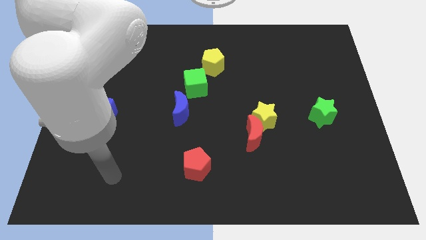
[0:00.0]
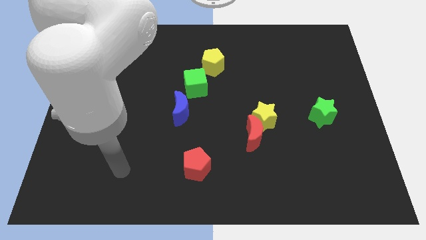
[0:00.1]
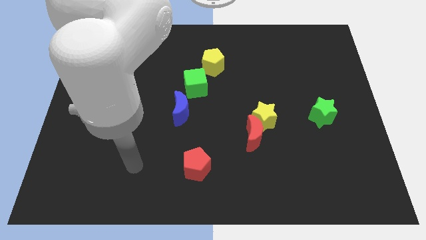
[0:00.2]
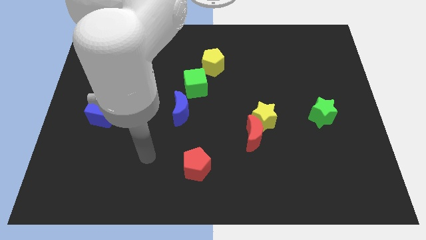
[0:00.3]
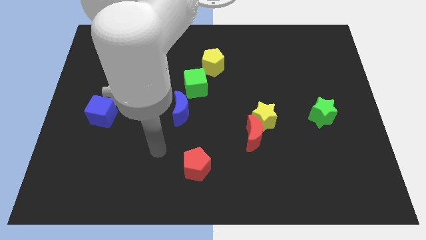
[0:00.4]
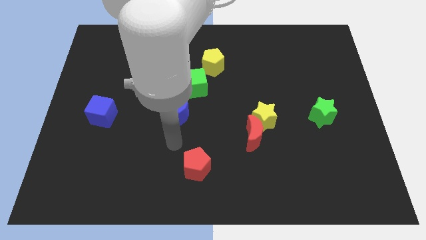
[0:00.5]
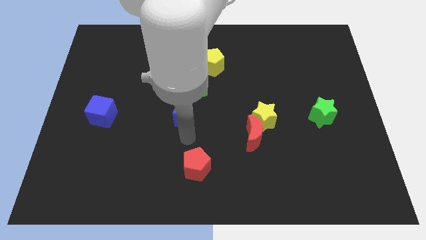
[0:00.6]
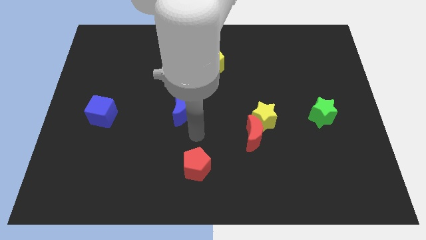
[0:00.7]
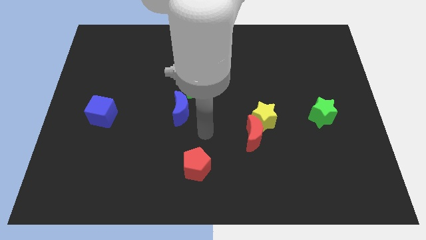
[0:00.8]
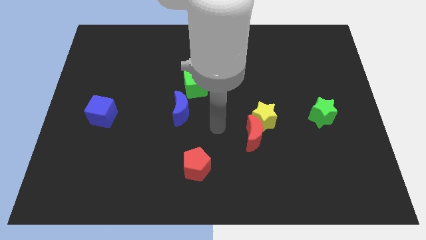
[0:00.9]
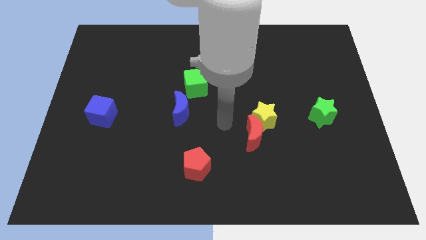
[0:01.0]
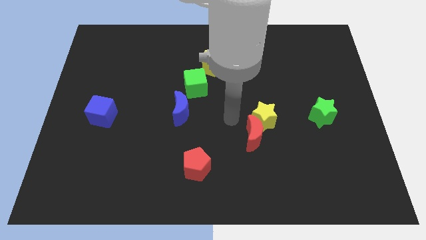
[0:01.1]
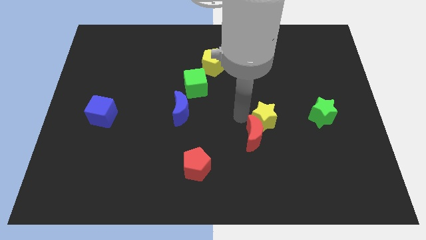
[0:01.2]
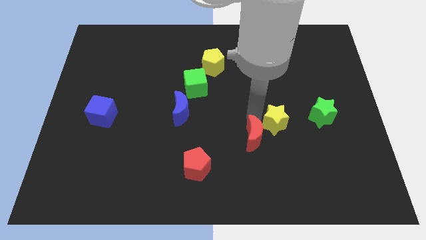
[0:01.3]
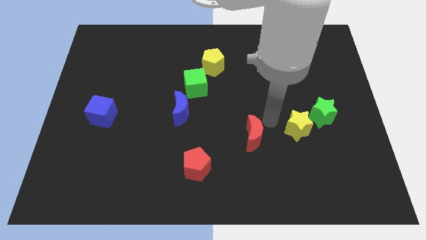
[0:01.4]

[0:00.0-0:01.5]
separate the red moon from the yellow star

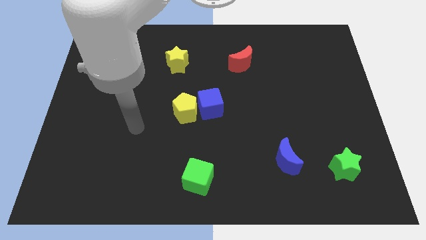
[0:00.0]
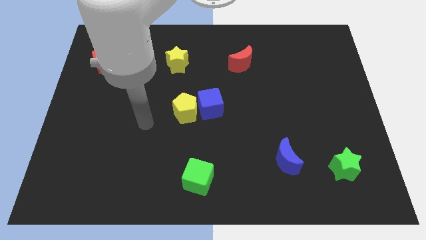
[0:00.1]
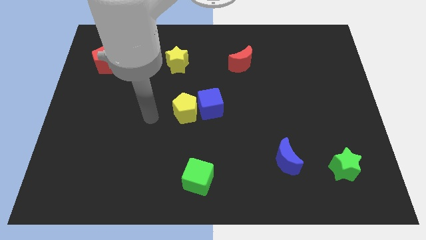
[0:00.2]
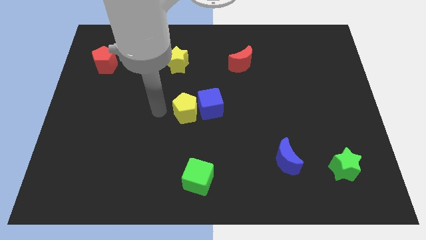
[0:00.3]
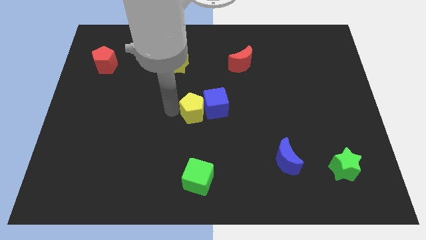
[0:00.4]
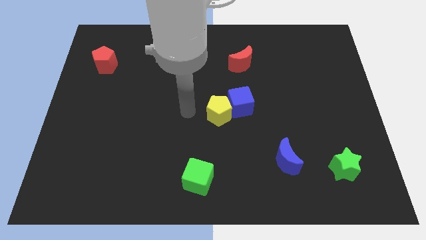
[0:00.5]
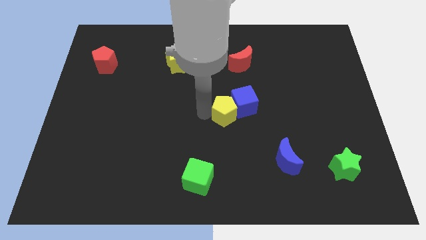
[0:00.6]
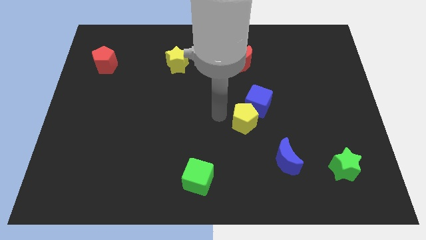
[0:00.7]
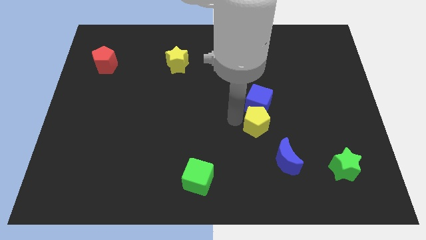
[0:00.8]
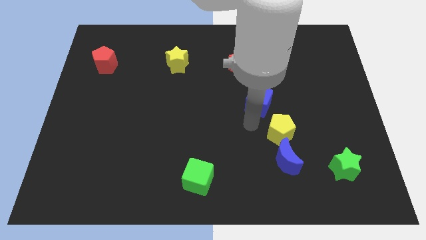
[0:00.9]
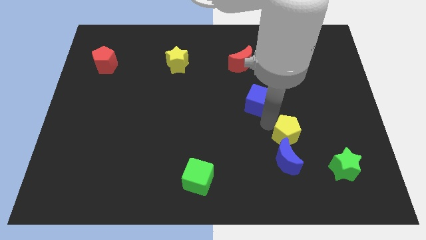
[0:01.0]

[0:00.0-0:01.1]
pull the blue cube apart from the yellow pentagon

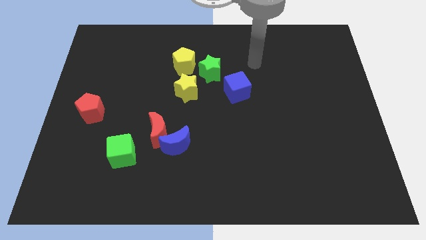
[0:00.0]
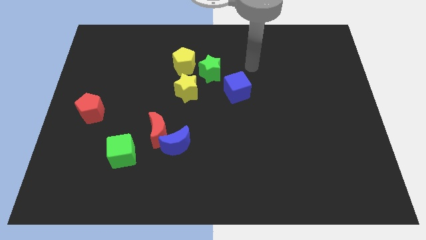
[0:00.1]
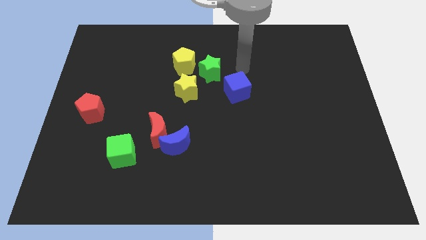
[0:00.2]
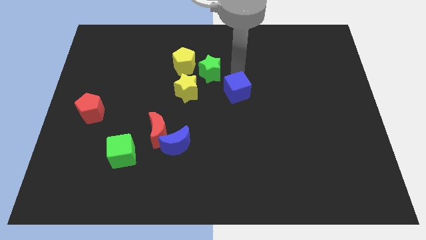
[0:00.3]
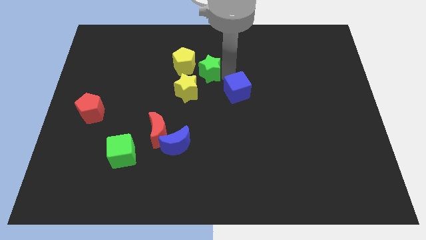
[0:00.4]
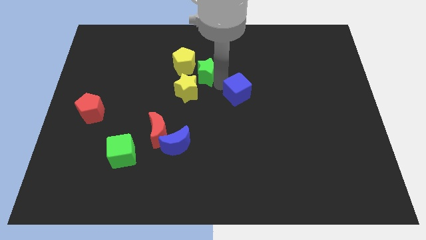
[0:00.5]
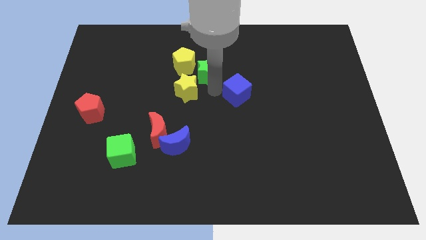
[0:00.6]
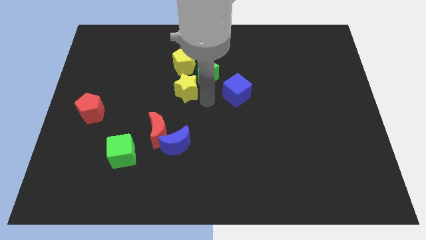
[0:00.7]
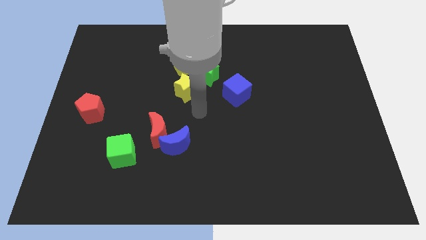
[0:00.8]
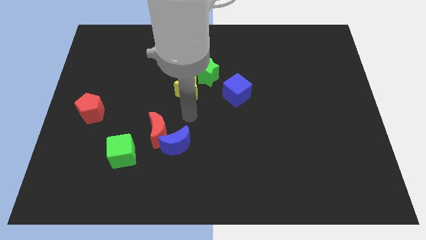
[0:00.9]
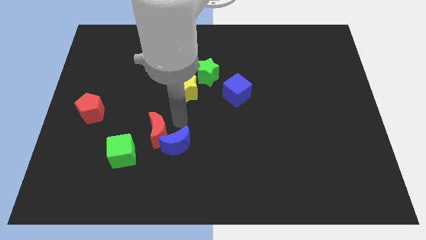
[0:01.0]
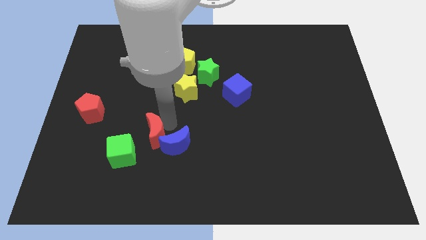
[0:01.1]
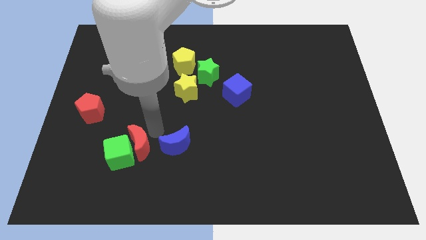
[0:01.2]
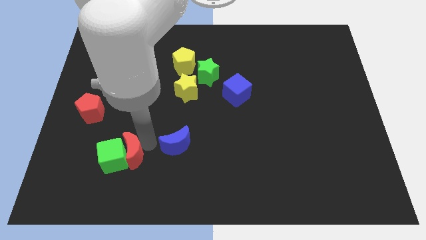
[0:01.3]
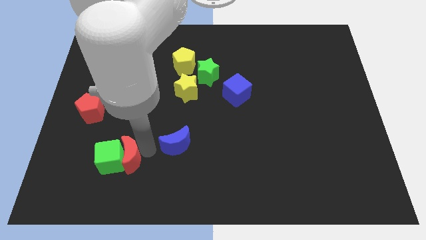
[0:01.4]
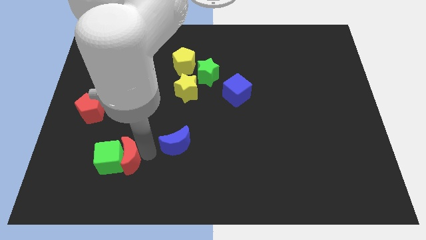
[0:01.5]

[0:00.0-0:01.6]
separate the blue moon from the red moon

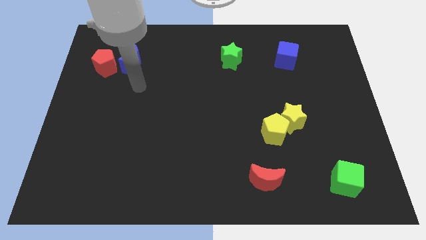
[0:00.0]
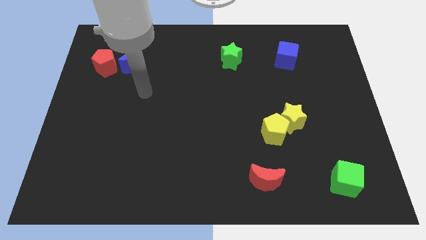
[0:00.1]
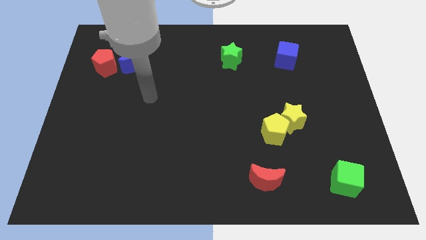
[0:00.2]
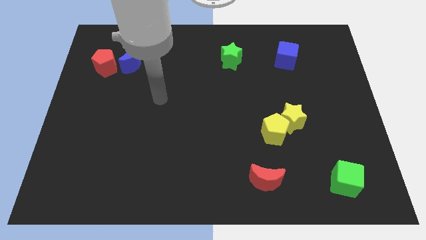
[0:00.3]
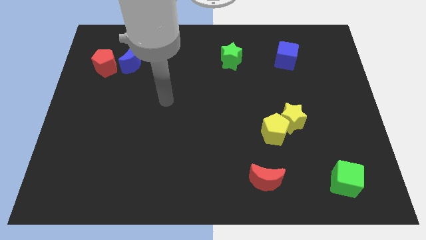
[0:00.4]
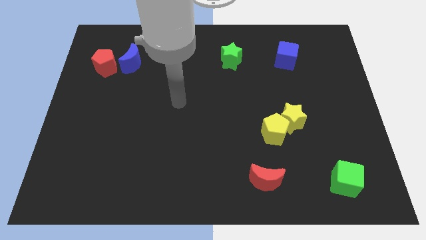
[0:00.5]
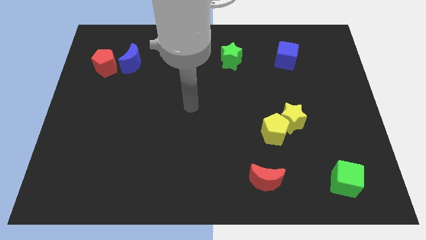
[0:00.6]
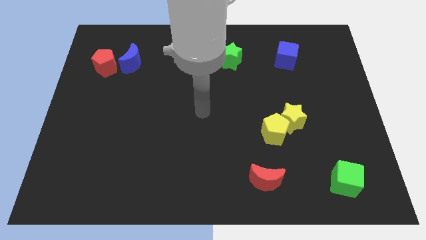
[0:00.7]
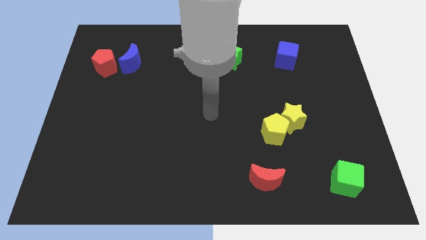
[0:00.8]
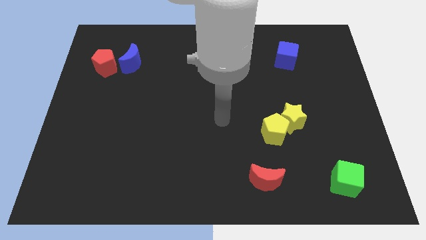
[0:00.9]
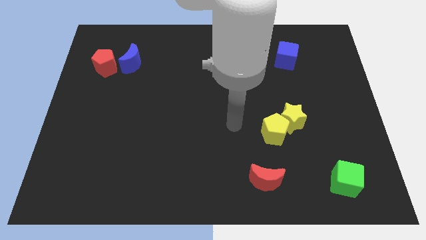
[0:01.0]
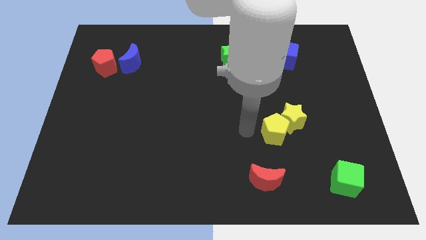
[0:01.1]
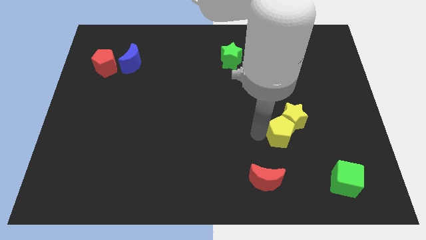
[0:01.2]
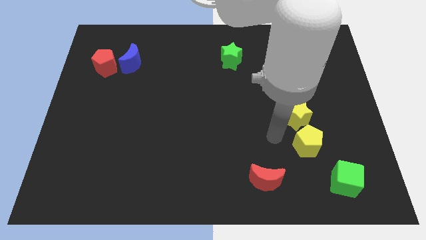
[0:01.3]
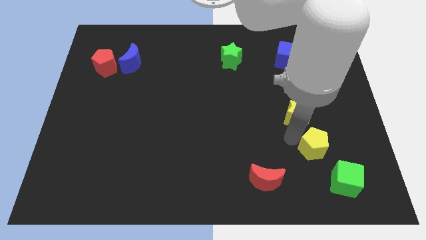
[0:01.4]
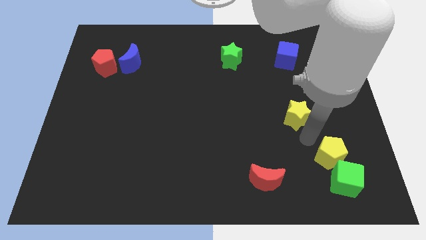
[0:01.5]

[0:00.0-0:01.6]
separate the yellow star from the yellow pentagon

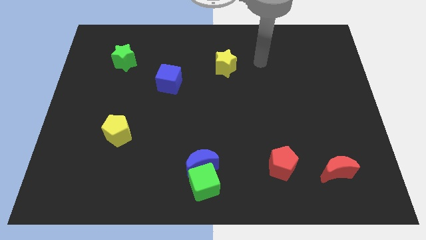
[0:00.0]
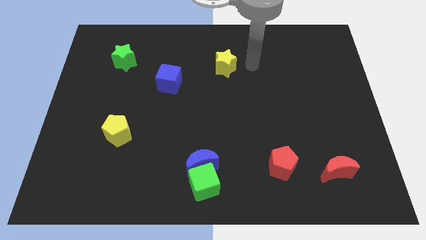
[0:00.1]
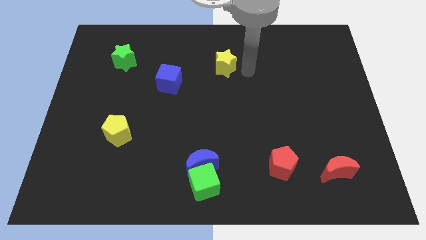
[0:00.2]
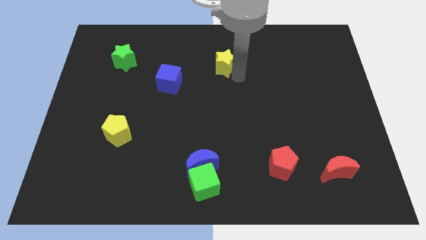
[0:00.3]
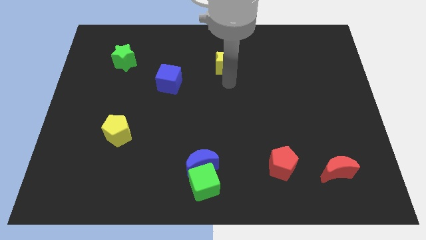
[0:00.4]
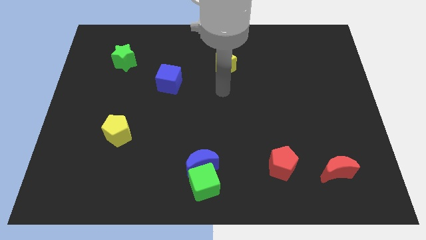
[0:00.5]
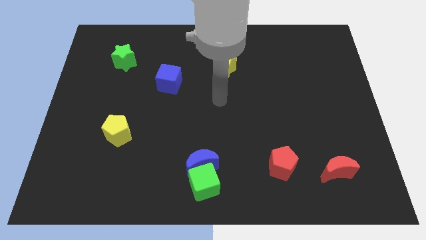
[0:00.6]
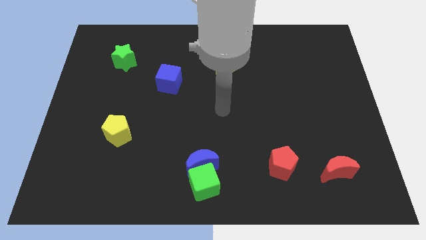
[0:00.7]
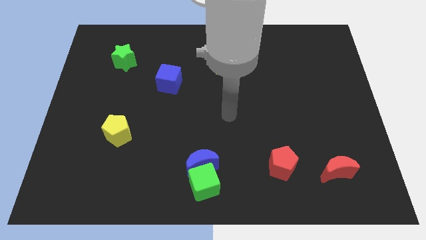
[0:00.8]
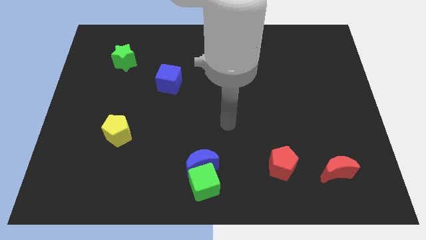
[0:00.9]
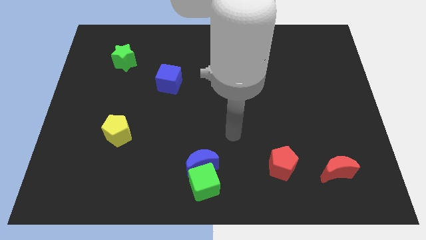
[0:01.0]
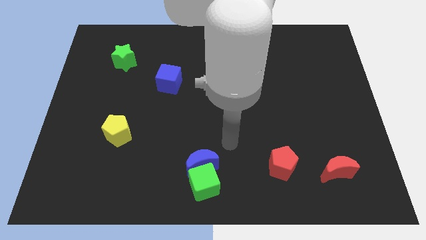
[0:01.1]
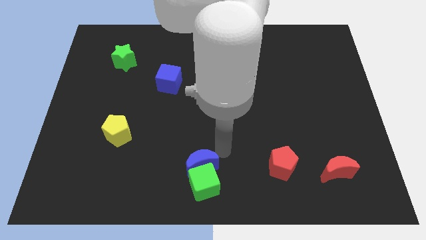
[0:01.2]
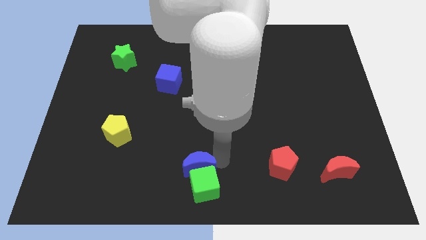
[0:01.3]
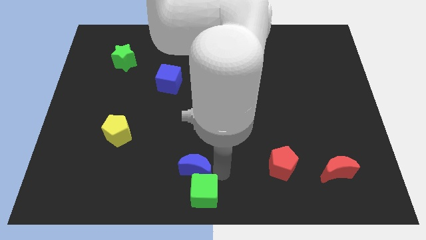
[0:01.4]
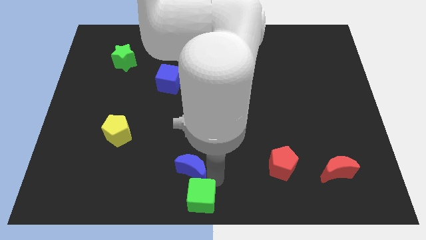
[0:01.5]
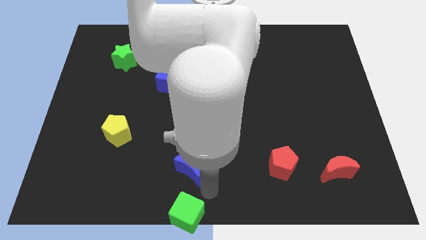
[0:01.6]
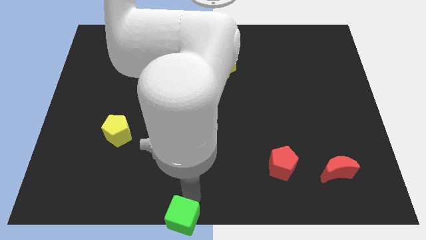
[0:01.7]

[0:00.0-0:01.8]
pull the blue moon apart from the green cube

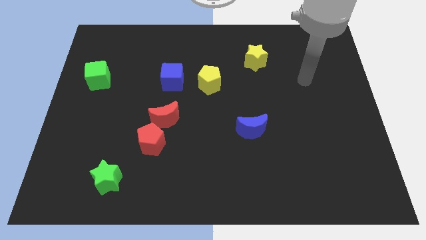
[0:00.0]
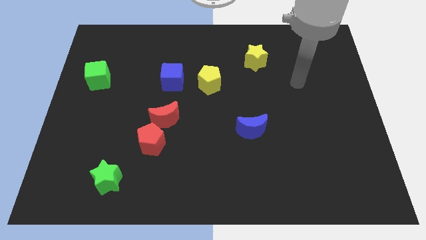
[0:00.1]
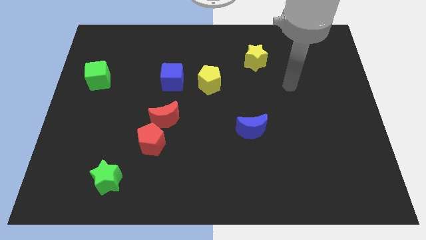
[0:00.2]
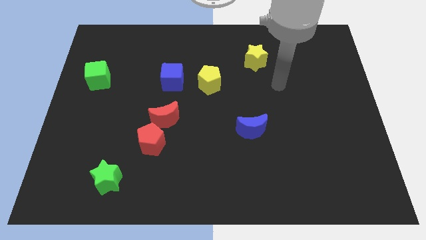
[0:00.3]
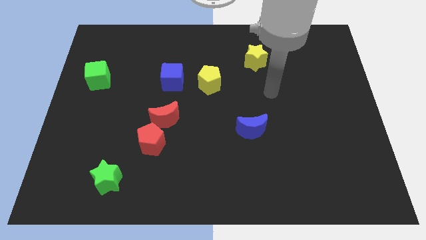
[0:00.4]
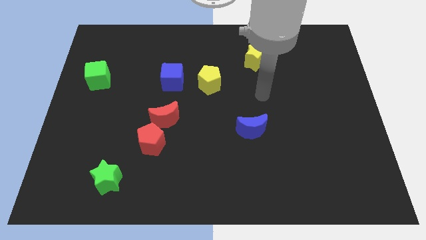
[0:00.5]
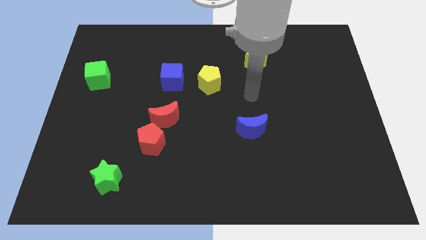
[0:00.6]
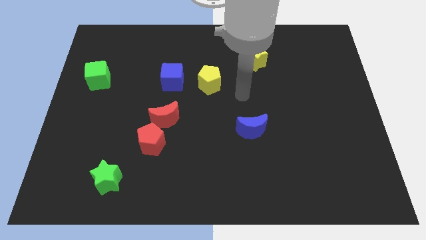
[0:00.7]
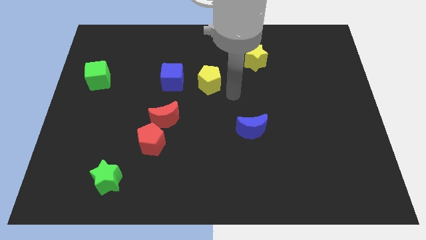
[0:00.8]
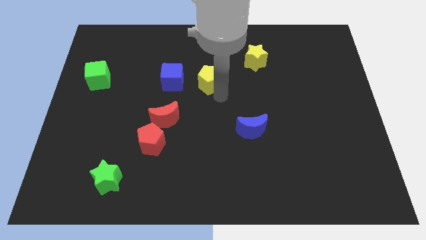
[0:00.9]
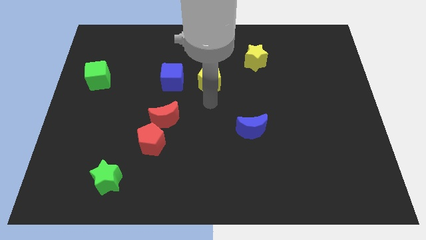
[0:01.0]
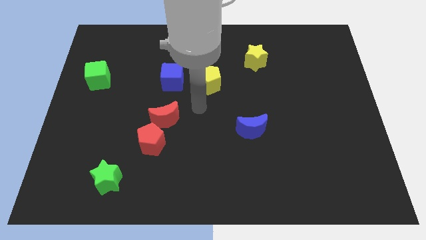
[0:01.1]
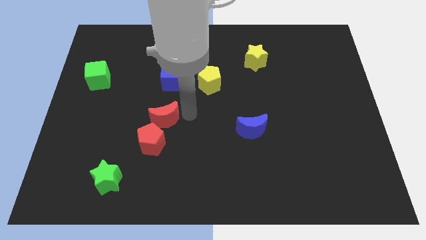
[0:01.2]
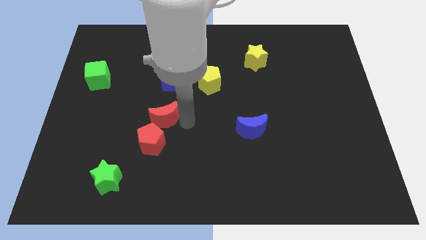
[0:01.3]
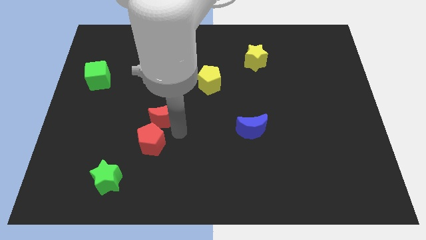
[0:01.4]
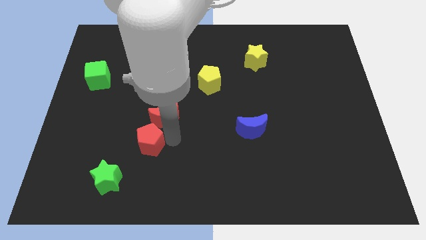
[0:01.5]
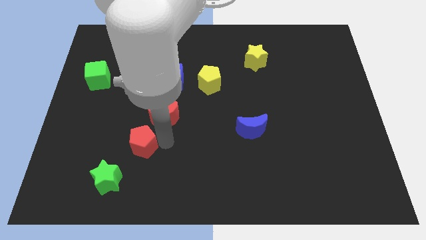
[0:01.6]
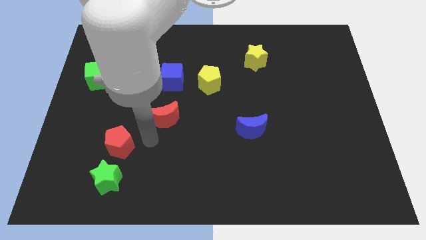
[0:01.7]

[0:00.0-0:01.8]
separate the red moon from the red pentagon
